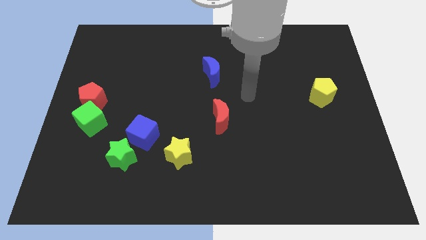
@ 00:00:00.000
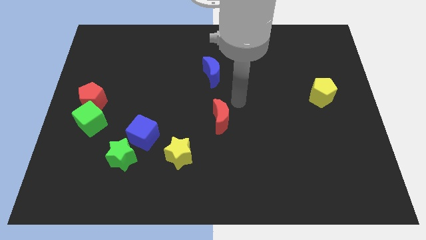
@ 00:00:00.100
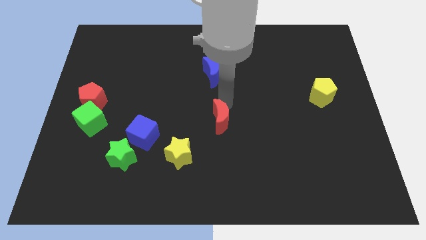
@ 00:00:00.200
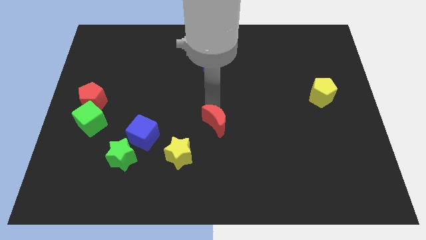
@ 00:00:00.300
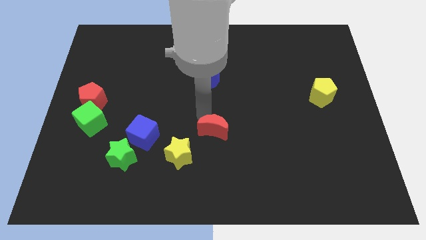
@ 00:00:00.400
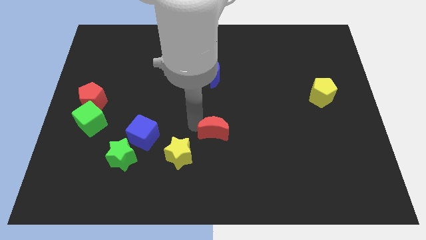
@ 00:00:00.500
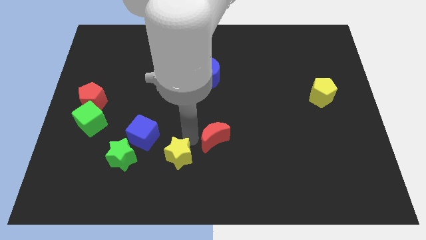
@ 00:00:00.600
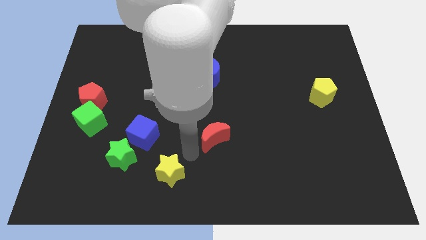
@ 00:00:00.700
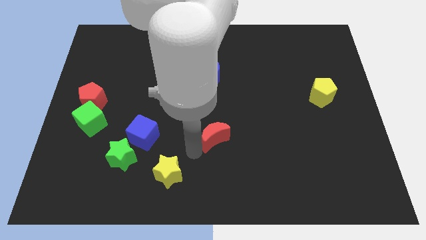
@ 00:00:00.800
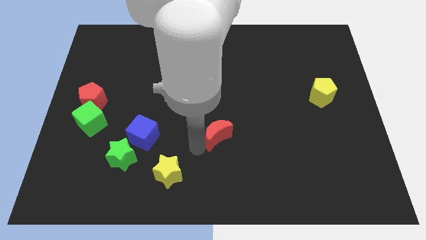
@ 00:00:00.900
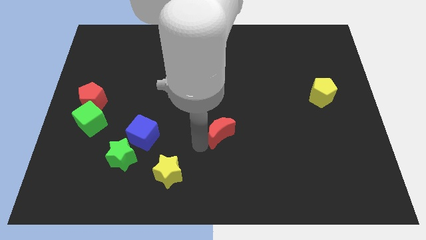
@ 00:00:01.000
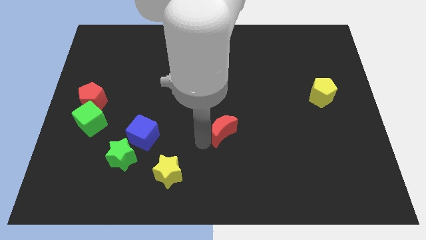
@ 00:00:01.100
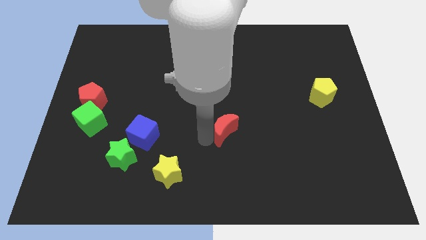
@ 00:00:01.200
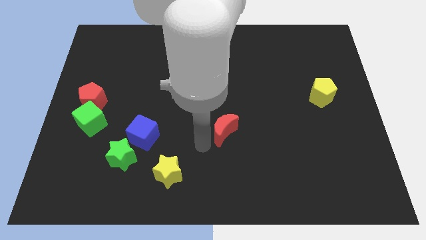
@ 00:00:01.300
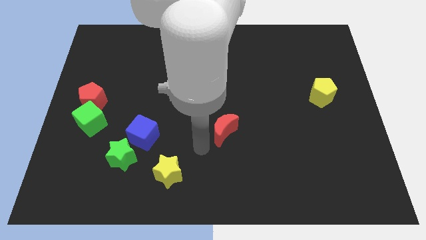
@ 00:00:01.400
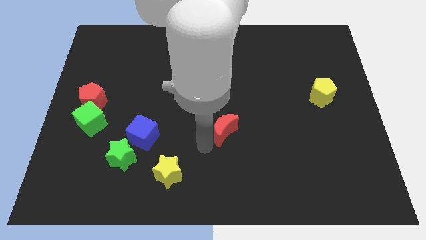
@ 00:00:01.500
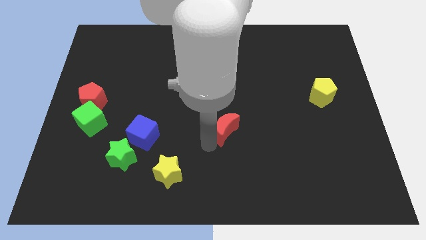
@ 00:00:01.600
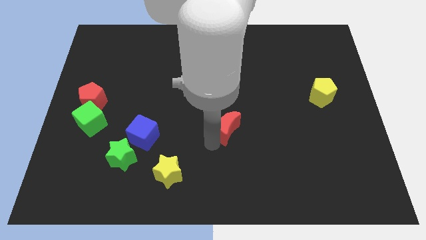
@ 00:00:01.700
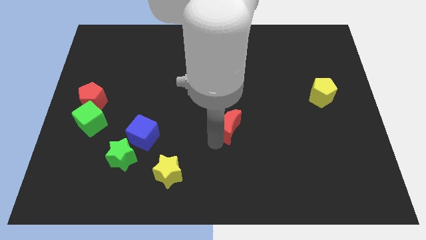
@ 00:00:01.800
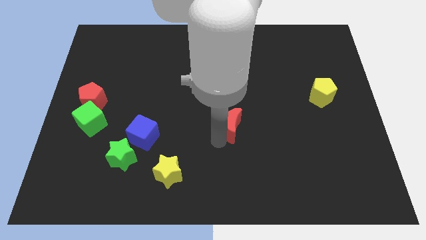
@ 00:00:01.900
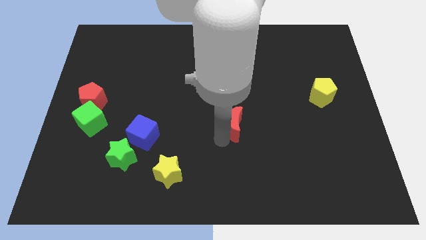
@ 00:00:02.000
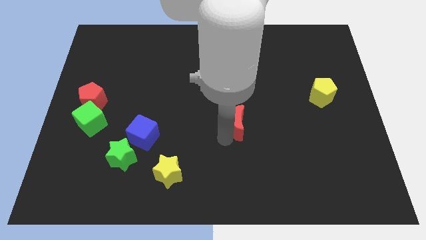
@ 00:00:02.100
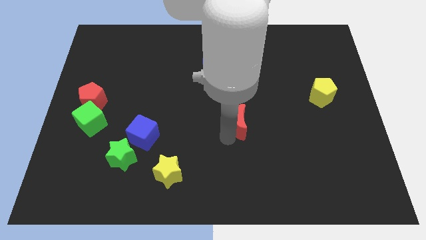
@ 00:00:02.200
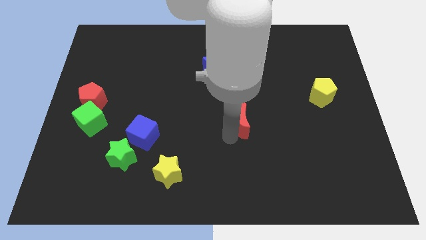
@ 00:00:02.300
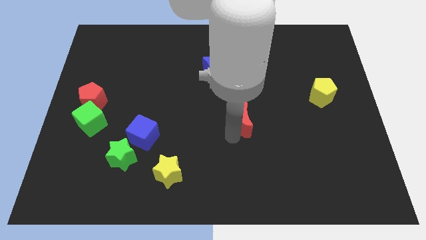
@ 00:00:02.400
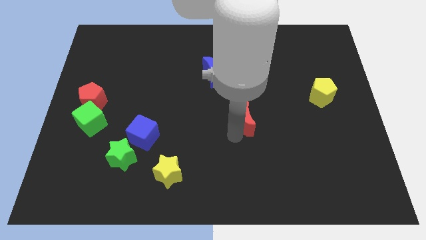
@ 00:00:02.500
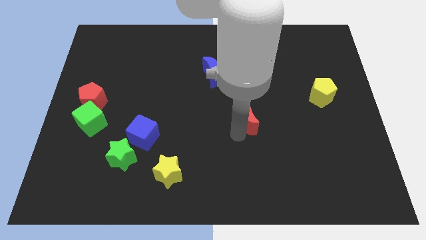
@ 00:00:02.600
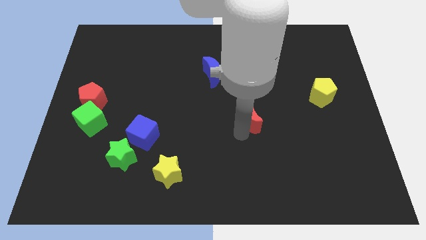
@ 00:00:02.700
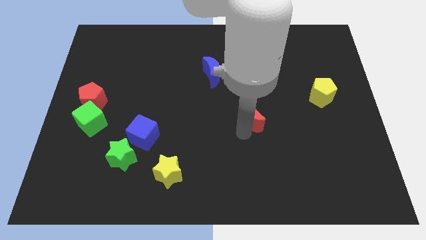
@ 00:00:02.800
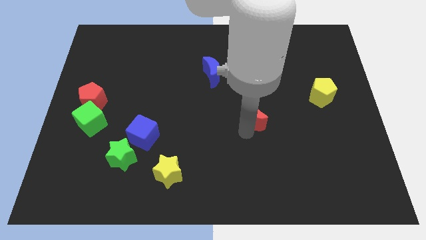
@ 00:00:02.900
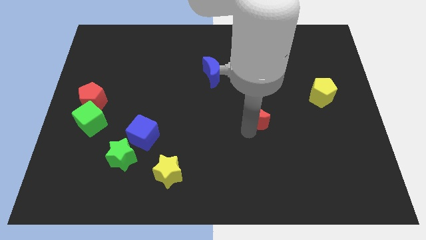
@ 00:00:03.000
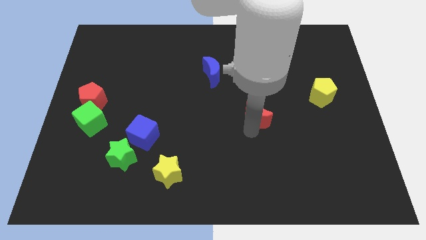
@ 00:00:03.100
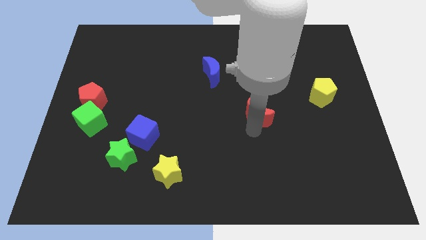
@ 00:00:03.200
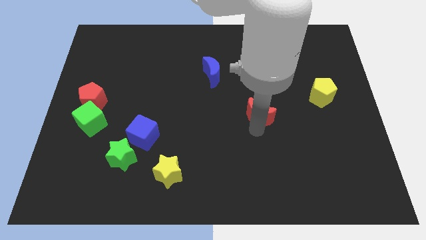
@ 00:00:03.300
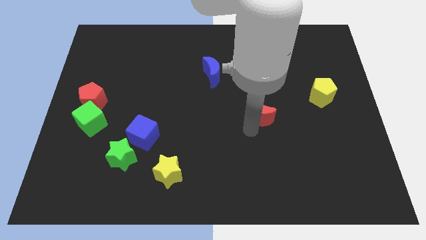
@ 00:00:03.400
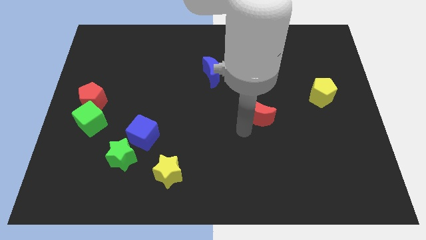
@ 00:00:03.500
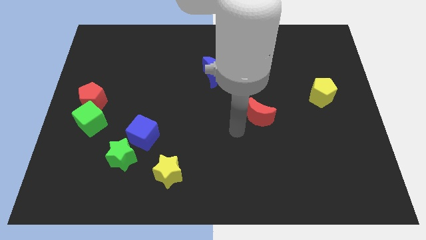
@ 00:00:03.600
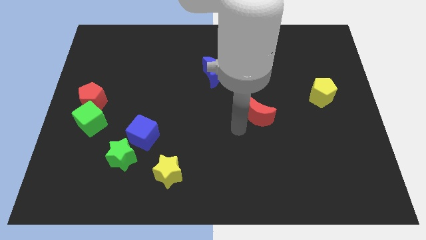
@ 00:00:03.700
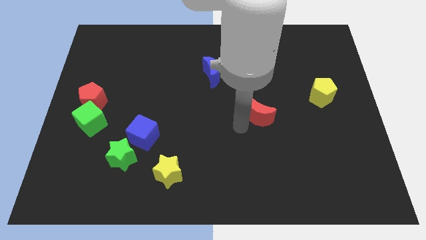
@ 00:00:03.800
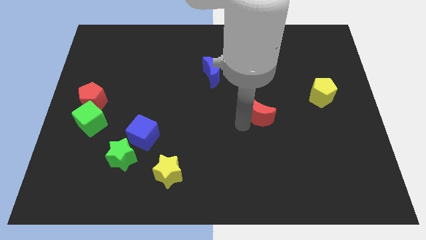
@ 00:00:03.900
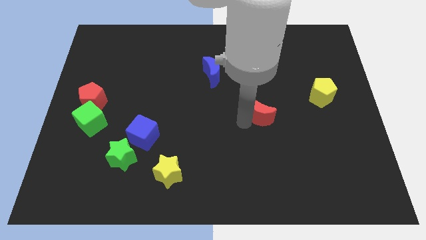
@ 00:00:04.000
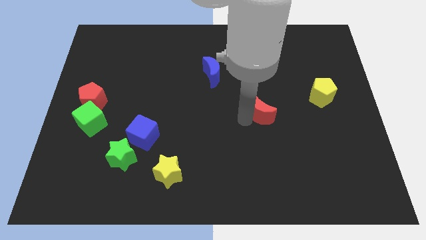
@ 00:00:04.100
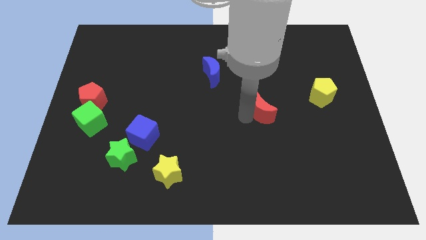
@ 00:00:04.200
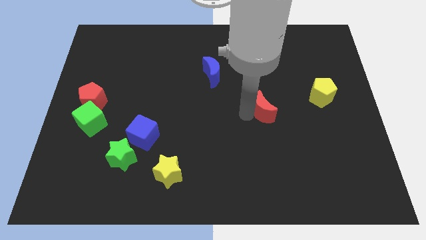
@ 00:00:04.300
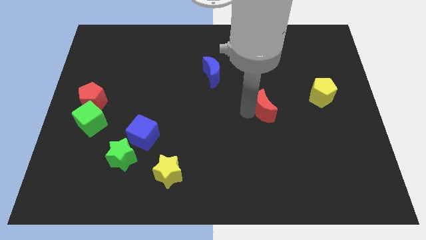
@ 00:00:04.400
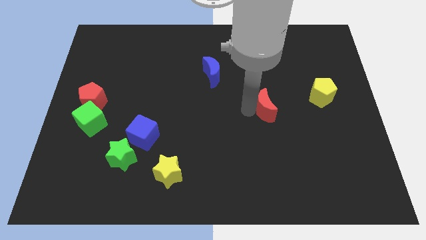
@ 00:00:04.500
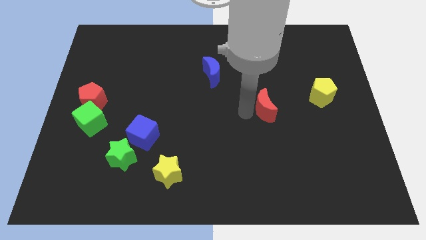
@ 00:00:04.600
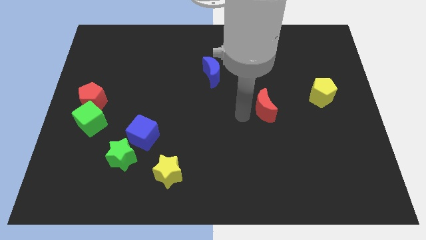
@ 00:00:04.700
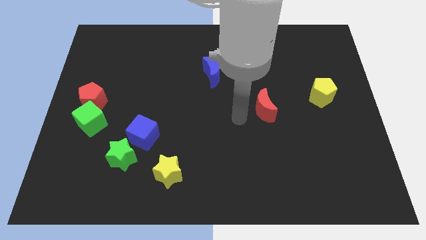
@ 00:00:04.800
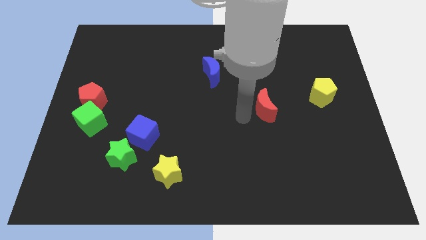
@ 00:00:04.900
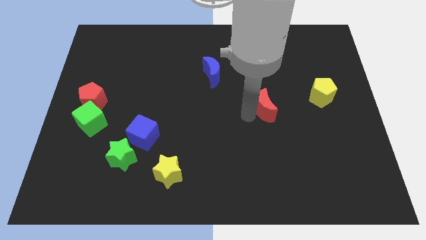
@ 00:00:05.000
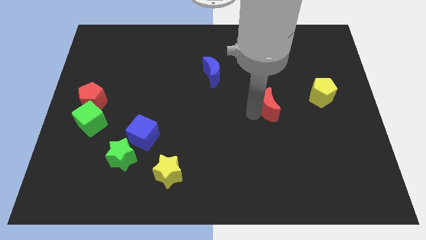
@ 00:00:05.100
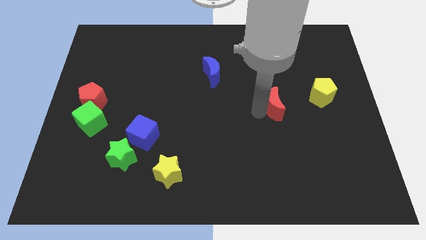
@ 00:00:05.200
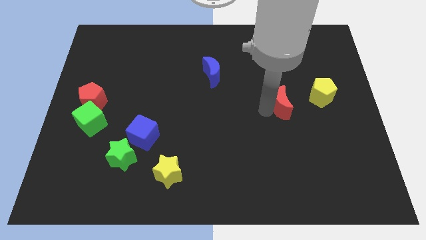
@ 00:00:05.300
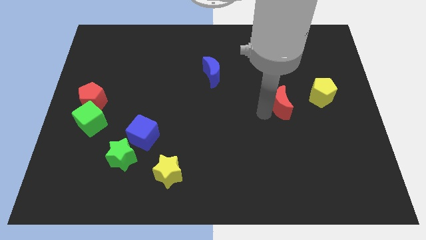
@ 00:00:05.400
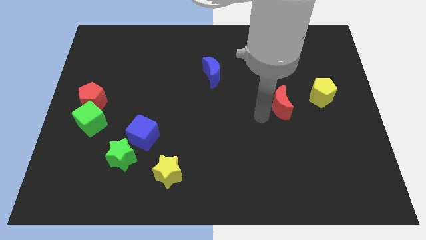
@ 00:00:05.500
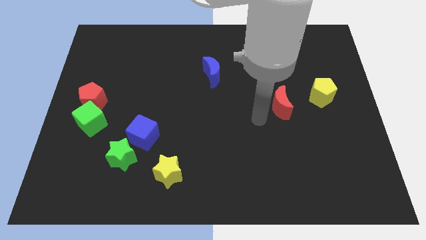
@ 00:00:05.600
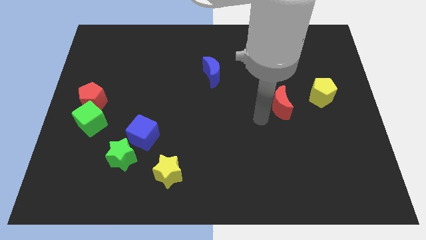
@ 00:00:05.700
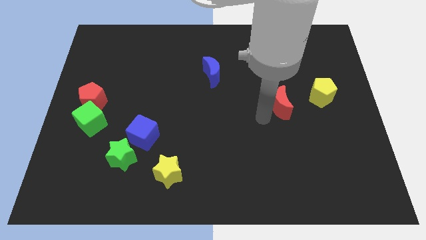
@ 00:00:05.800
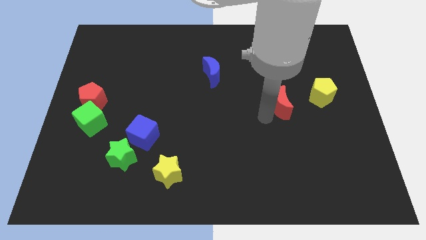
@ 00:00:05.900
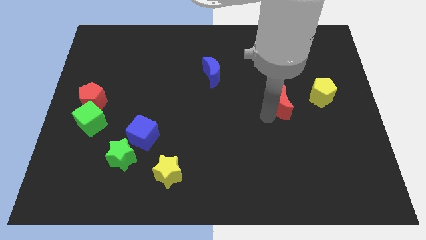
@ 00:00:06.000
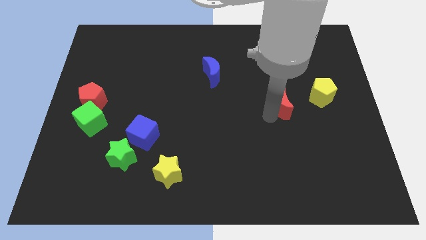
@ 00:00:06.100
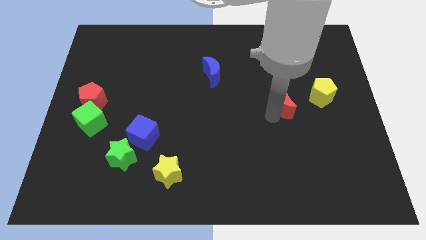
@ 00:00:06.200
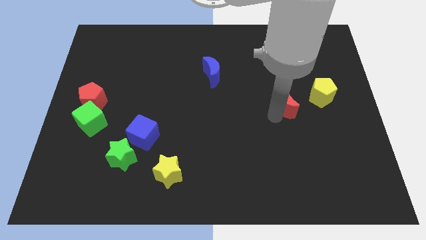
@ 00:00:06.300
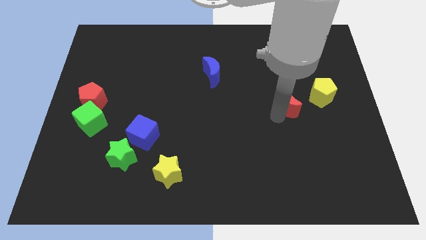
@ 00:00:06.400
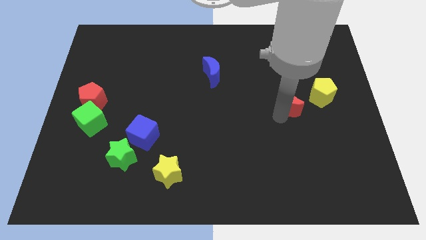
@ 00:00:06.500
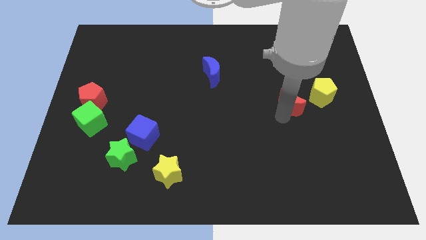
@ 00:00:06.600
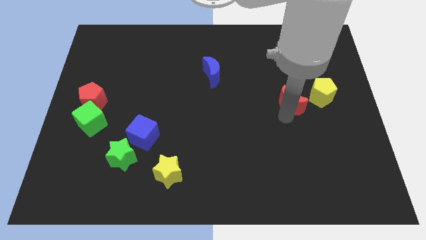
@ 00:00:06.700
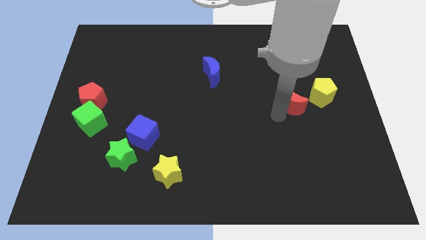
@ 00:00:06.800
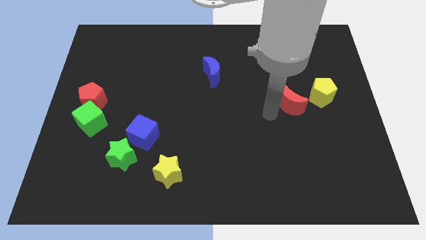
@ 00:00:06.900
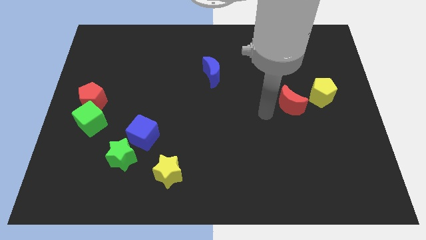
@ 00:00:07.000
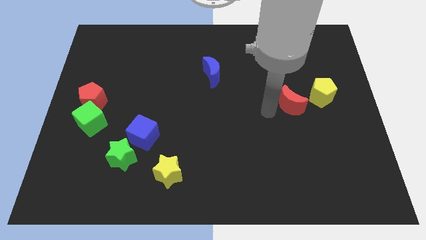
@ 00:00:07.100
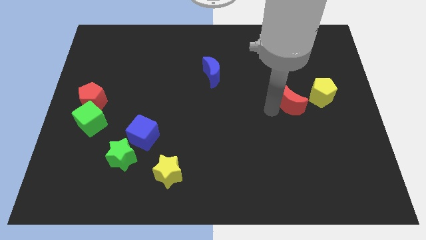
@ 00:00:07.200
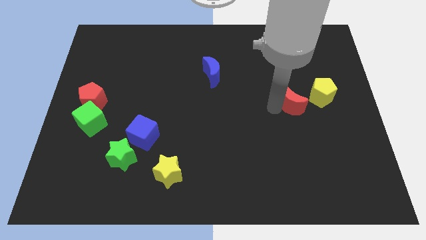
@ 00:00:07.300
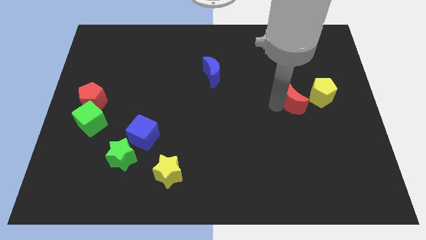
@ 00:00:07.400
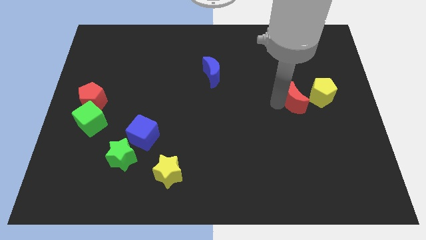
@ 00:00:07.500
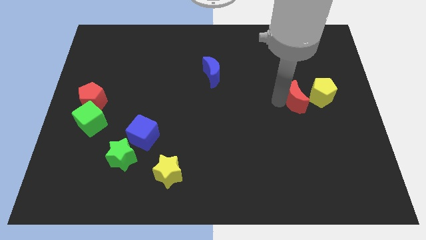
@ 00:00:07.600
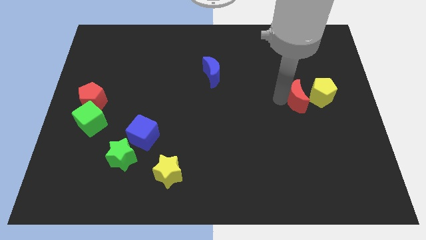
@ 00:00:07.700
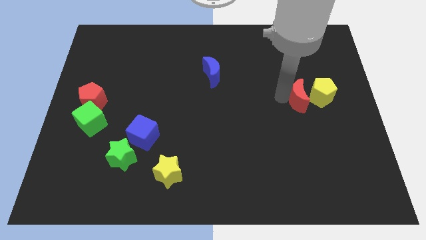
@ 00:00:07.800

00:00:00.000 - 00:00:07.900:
push the red moon towards the yellow pentagon
